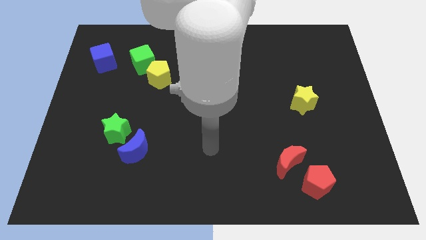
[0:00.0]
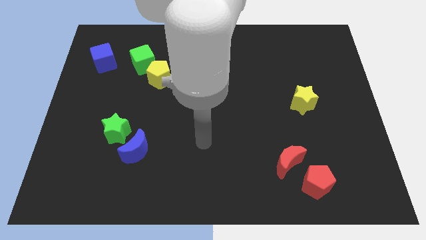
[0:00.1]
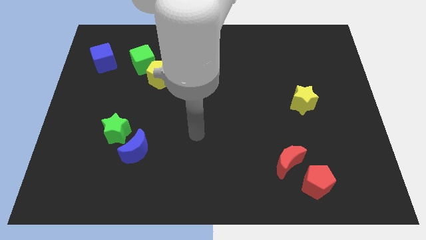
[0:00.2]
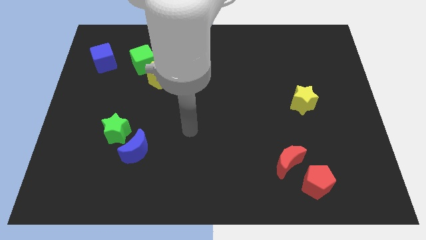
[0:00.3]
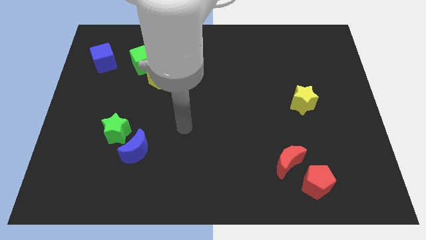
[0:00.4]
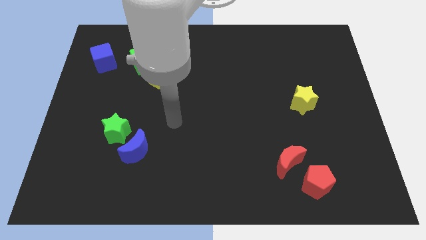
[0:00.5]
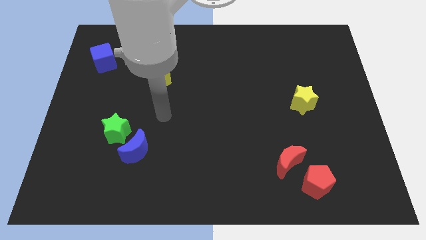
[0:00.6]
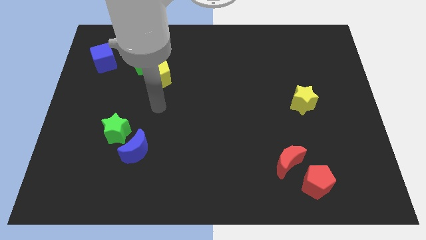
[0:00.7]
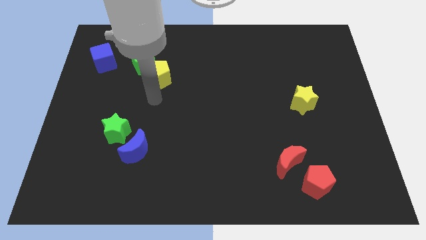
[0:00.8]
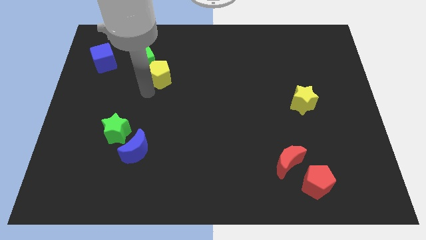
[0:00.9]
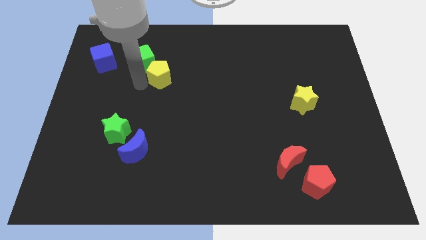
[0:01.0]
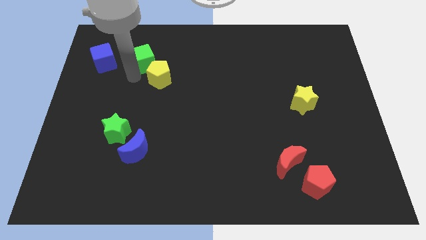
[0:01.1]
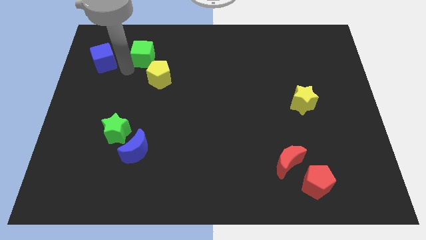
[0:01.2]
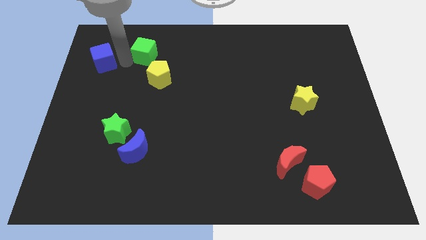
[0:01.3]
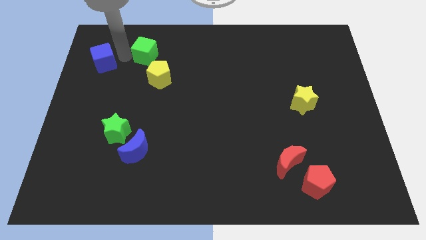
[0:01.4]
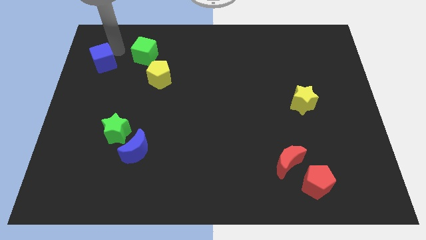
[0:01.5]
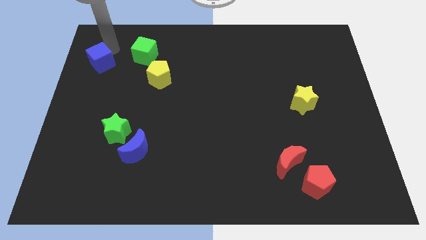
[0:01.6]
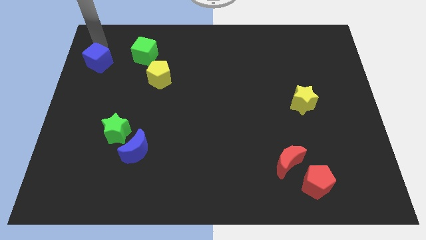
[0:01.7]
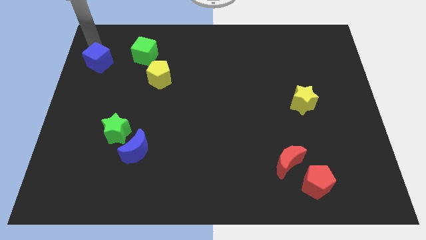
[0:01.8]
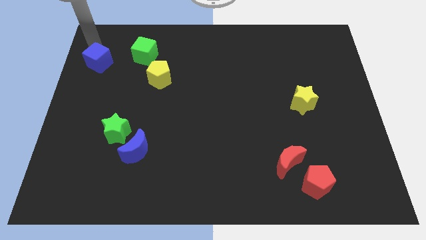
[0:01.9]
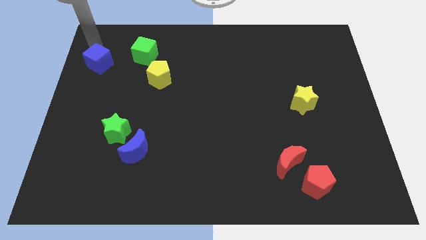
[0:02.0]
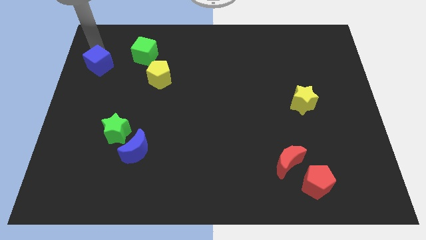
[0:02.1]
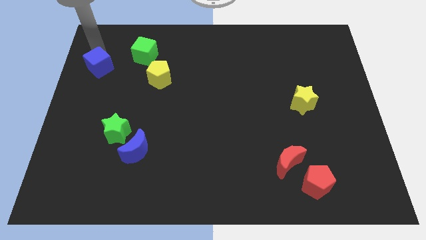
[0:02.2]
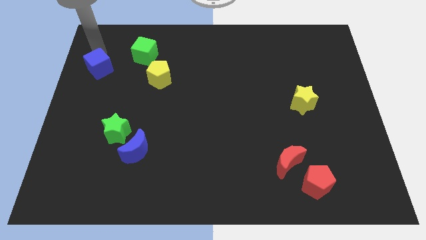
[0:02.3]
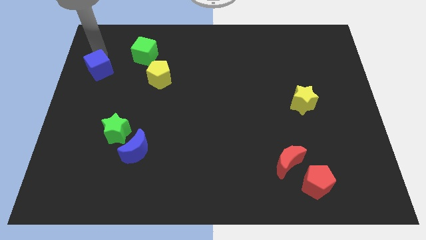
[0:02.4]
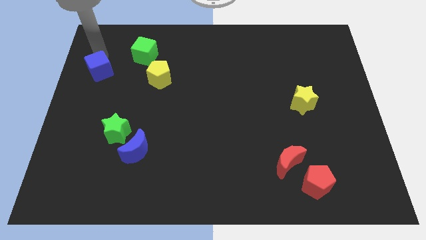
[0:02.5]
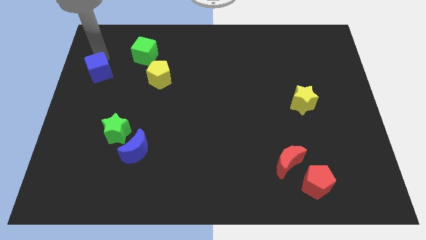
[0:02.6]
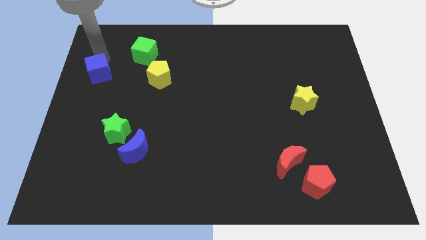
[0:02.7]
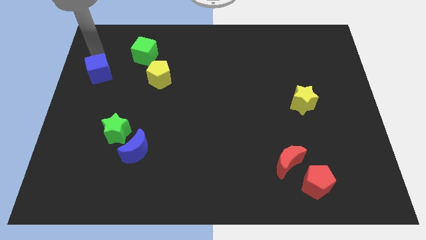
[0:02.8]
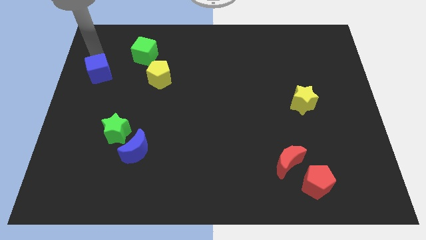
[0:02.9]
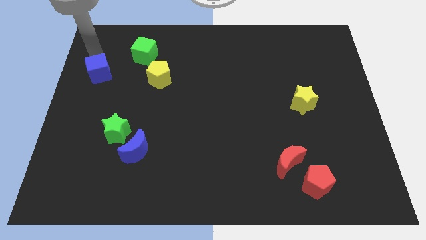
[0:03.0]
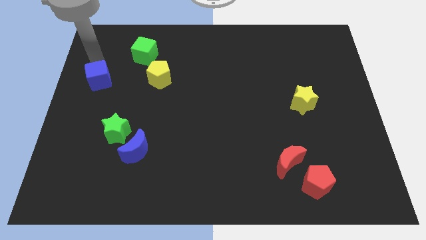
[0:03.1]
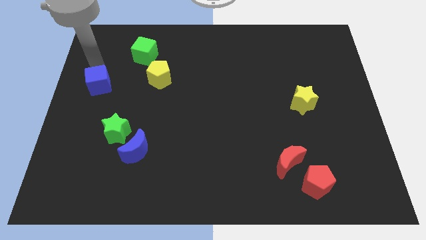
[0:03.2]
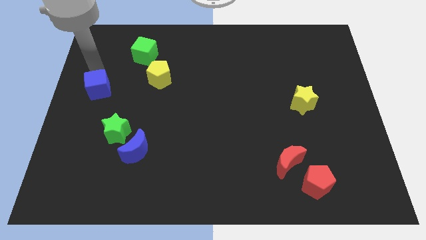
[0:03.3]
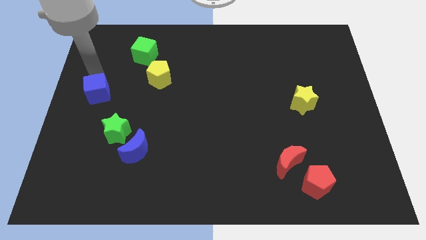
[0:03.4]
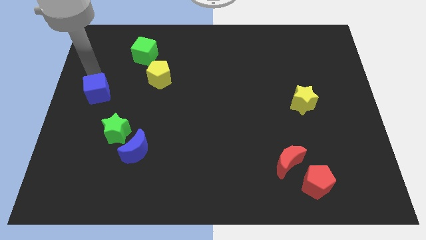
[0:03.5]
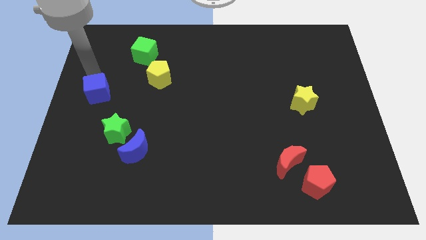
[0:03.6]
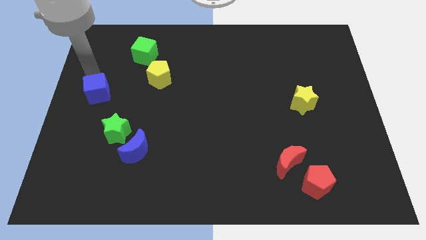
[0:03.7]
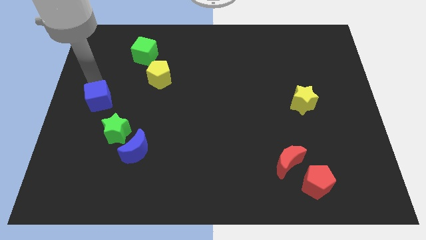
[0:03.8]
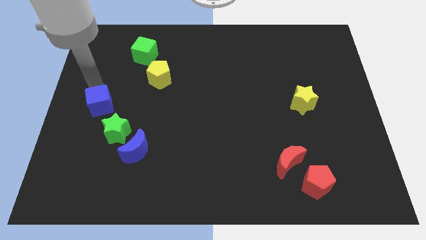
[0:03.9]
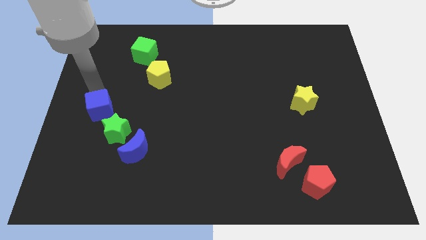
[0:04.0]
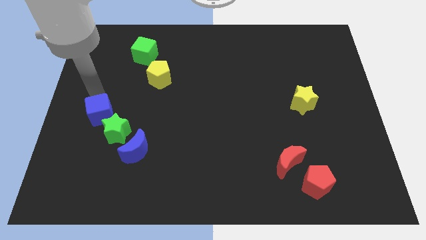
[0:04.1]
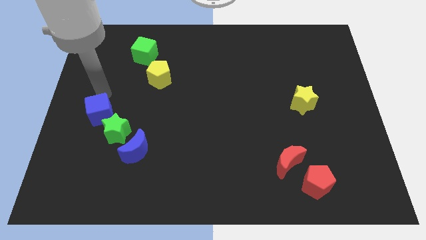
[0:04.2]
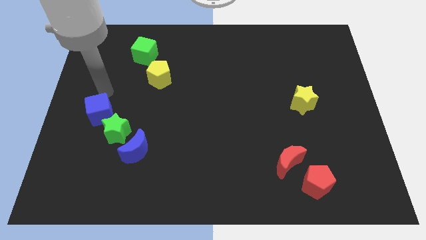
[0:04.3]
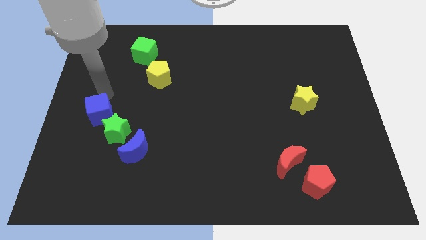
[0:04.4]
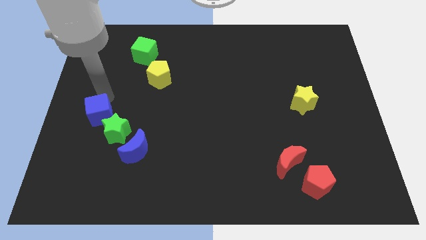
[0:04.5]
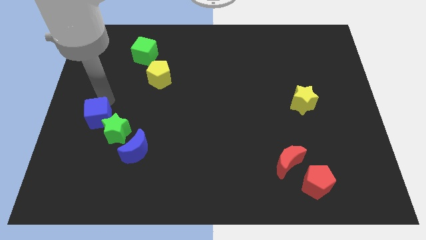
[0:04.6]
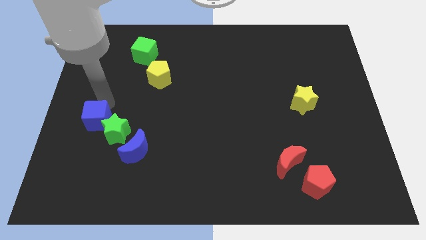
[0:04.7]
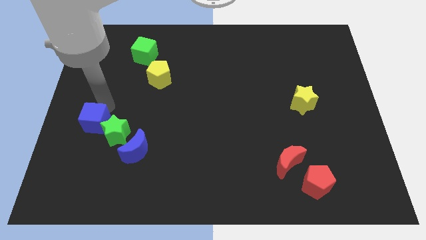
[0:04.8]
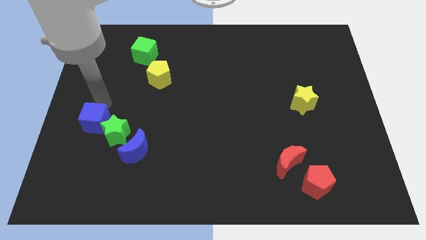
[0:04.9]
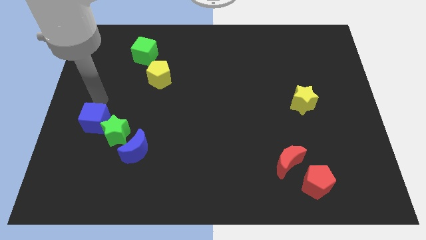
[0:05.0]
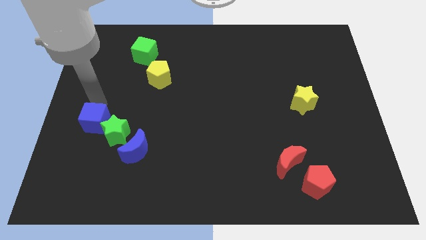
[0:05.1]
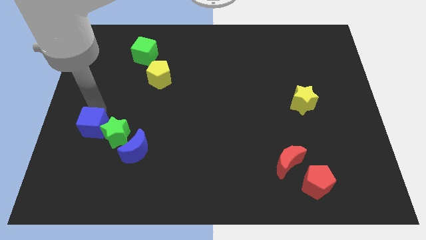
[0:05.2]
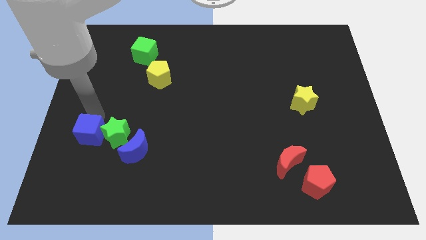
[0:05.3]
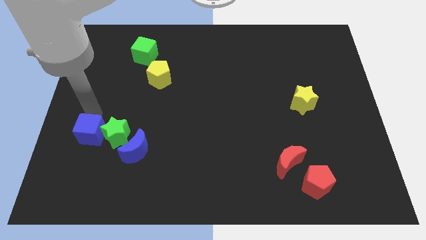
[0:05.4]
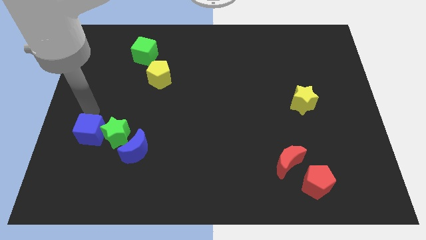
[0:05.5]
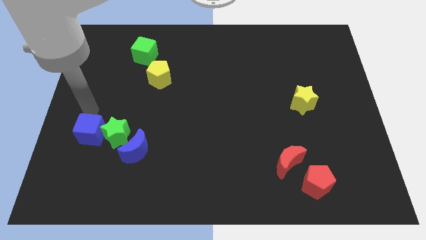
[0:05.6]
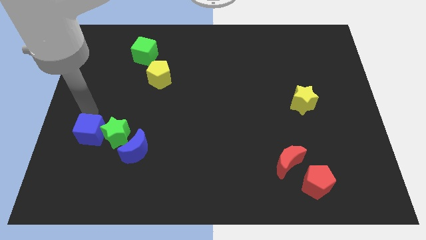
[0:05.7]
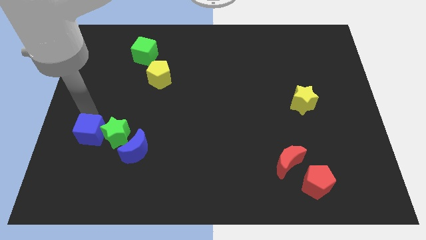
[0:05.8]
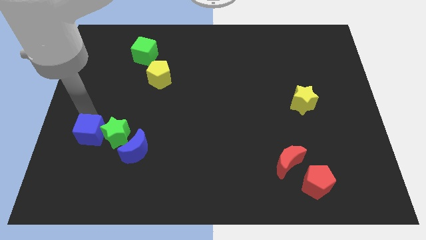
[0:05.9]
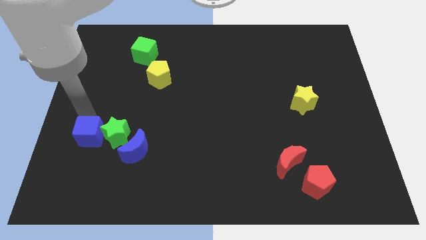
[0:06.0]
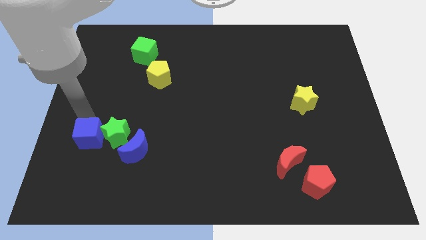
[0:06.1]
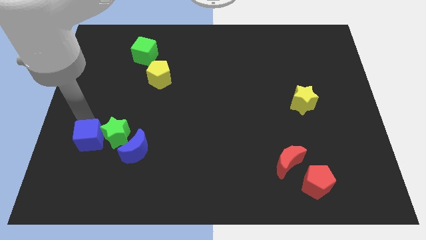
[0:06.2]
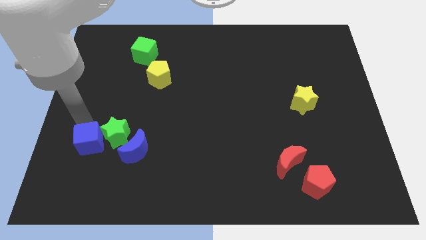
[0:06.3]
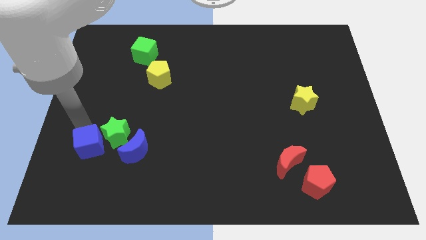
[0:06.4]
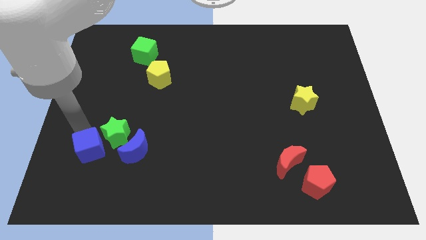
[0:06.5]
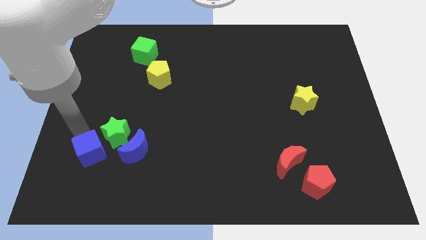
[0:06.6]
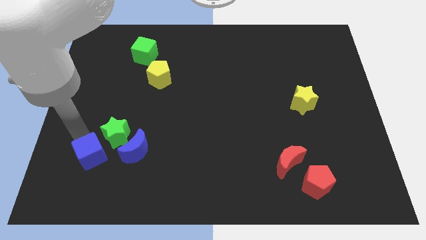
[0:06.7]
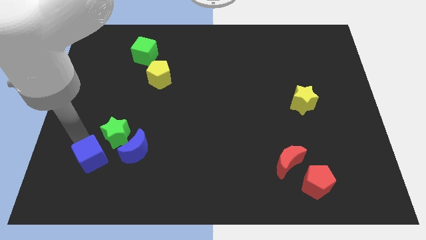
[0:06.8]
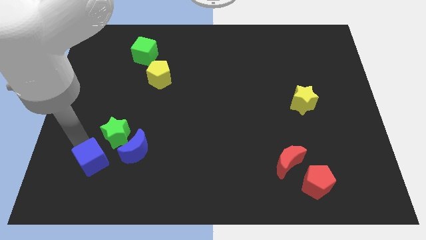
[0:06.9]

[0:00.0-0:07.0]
put the blue cube to the bottom left of the blue moon

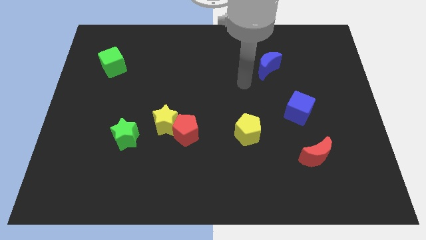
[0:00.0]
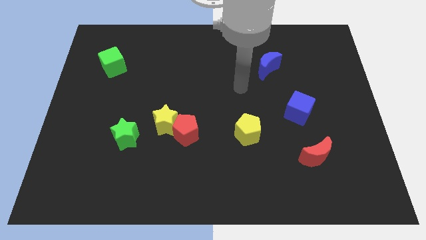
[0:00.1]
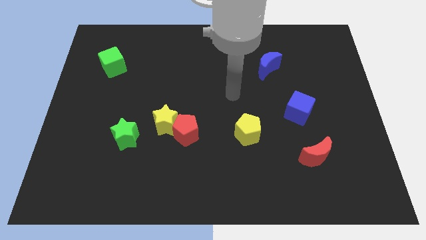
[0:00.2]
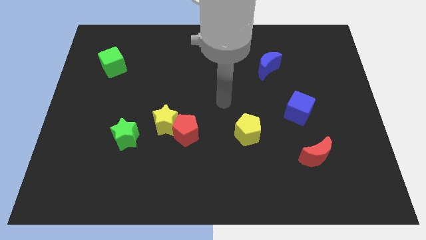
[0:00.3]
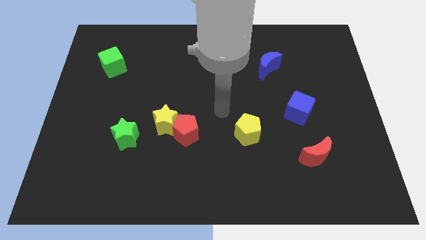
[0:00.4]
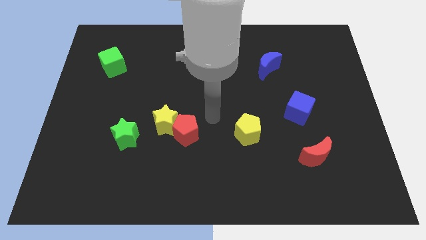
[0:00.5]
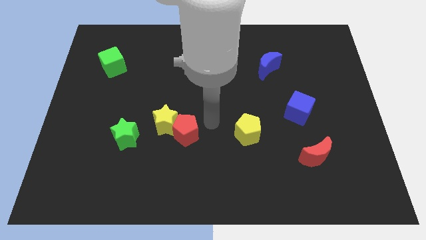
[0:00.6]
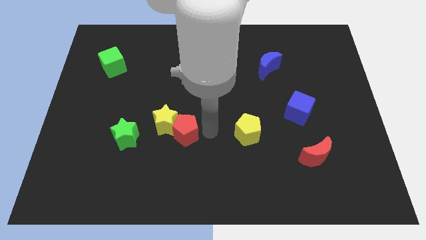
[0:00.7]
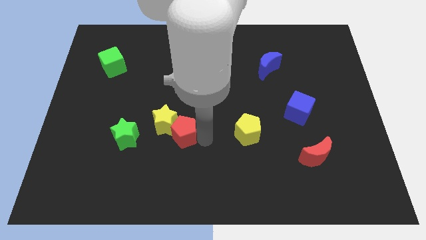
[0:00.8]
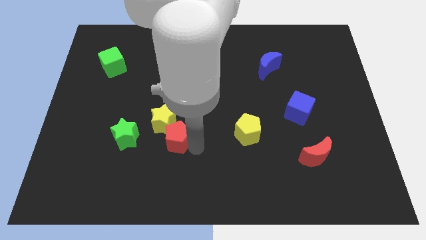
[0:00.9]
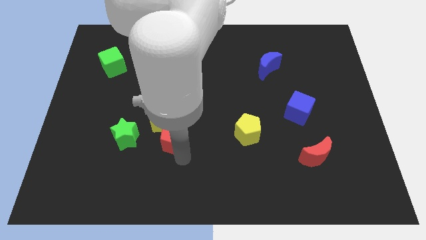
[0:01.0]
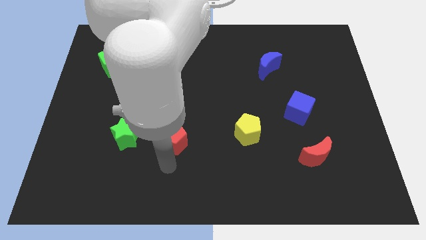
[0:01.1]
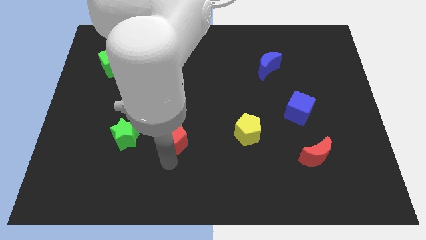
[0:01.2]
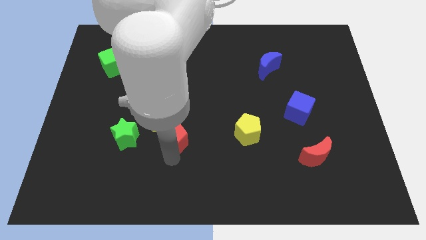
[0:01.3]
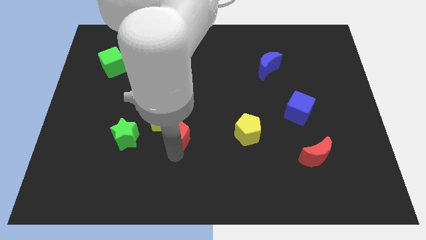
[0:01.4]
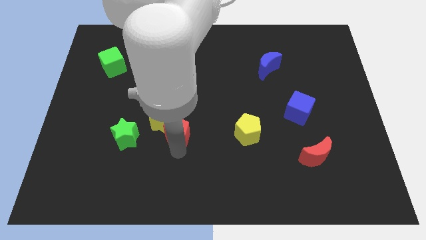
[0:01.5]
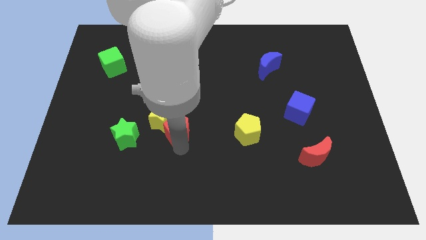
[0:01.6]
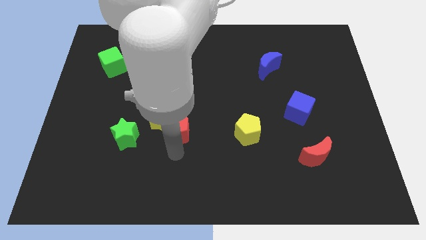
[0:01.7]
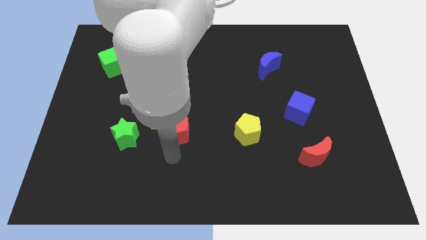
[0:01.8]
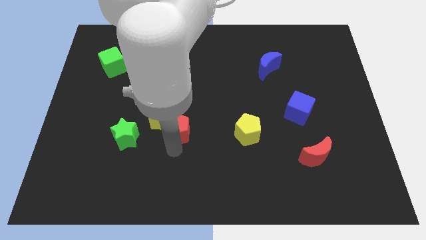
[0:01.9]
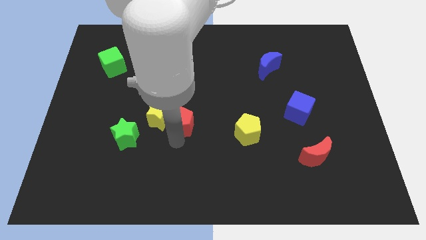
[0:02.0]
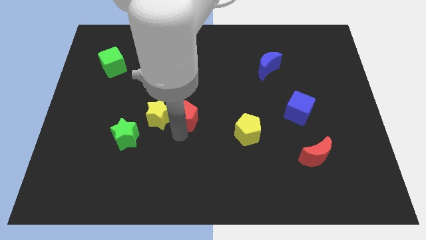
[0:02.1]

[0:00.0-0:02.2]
put the red pentagon to the top right of the yellow star
